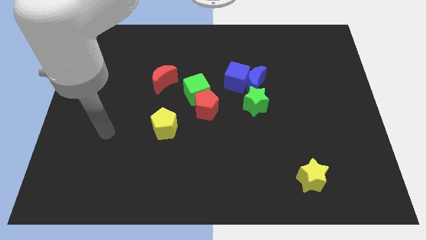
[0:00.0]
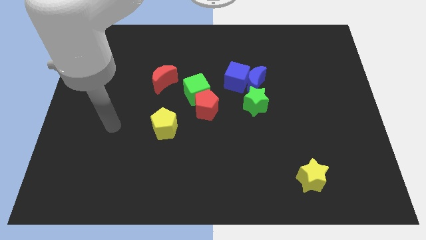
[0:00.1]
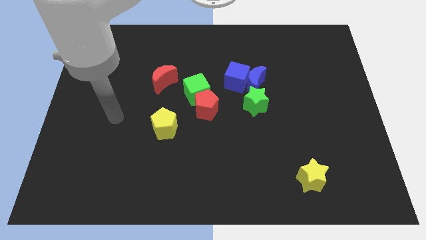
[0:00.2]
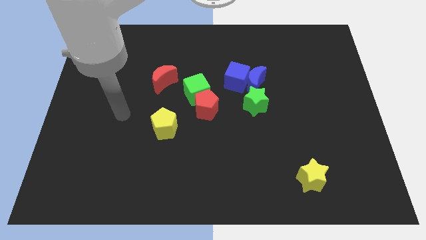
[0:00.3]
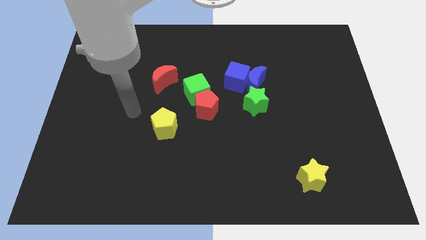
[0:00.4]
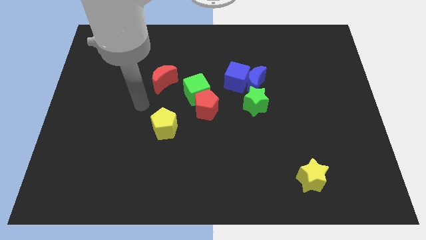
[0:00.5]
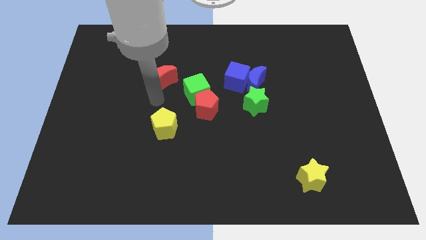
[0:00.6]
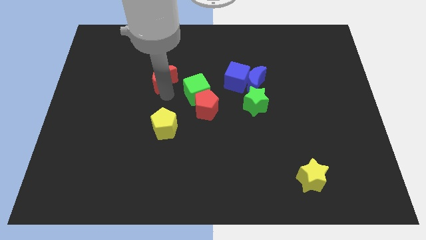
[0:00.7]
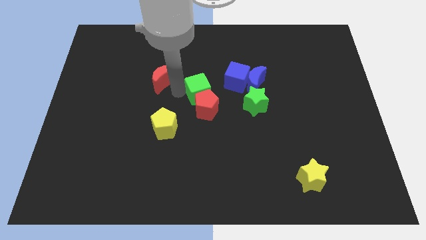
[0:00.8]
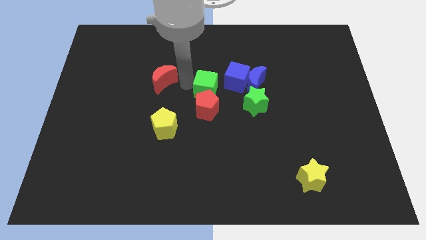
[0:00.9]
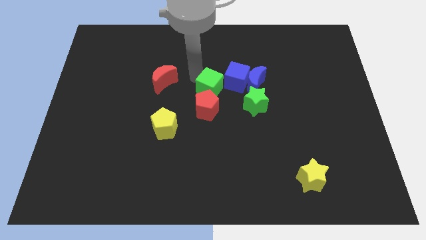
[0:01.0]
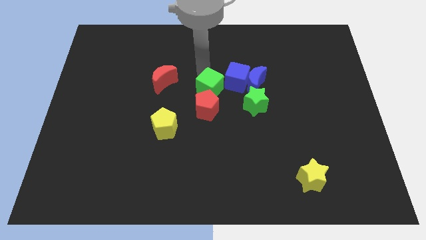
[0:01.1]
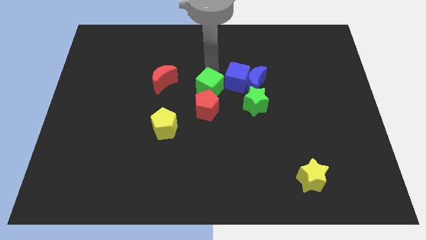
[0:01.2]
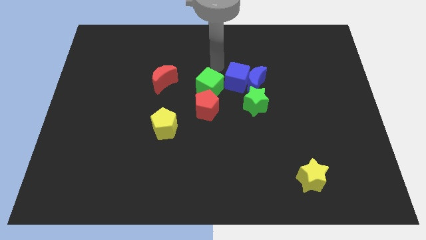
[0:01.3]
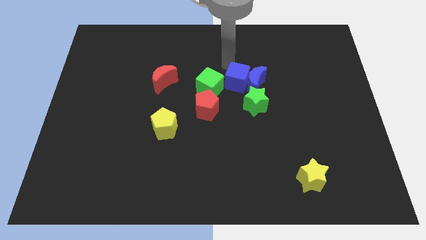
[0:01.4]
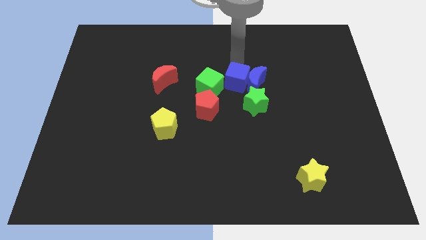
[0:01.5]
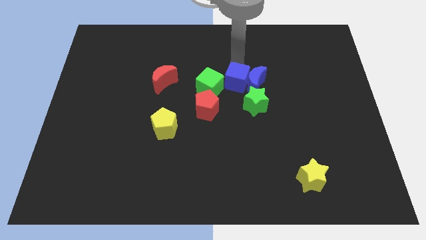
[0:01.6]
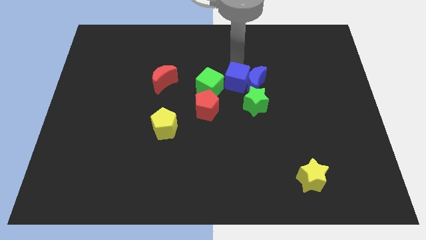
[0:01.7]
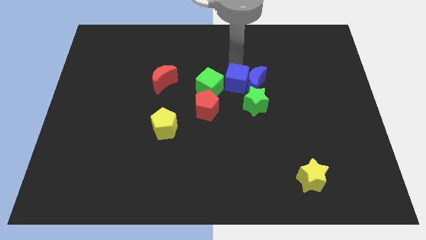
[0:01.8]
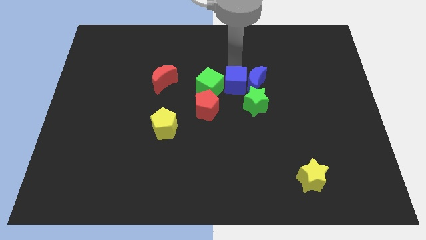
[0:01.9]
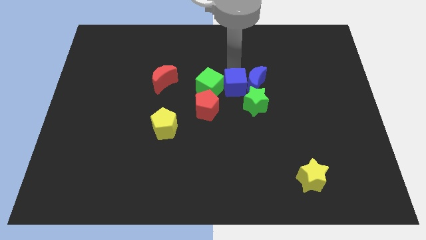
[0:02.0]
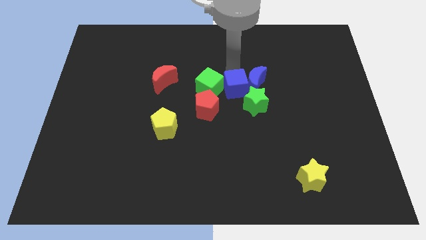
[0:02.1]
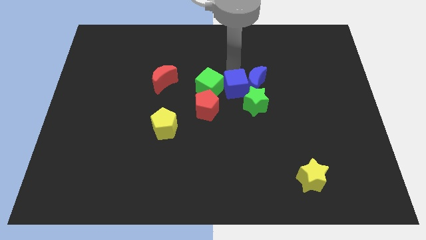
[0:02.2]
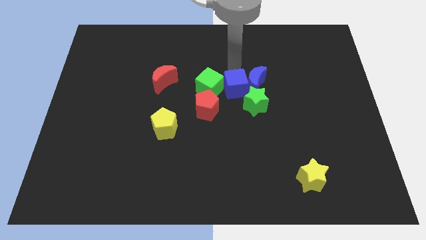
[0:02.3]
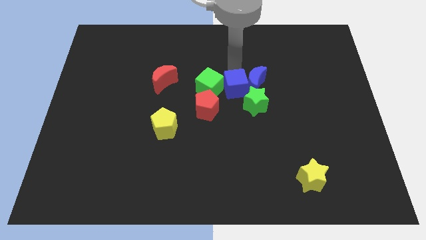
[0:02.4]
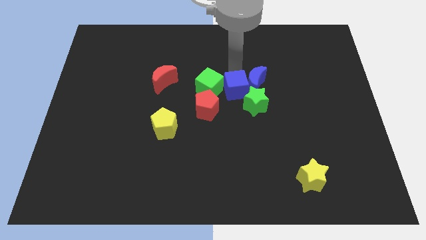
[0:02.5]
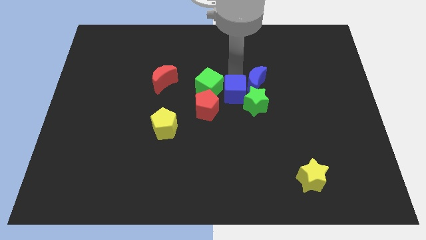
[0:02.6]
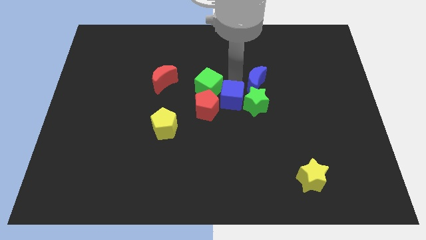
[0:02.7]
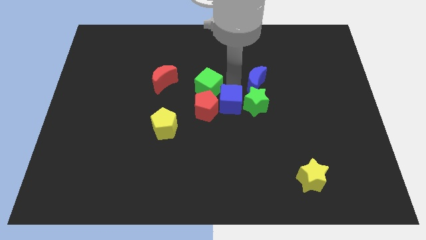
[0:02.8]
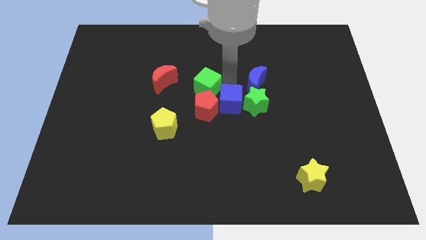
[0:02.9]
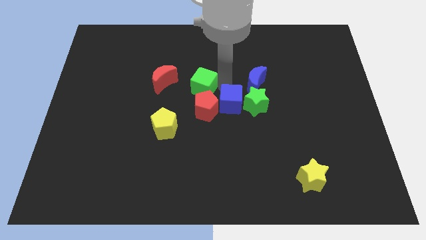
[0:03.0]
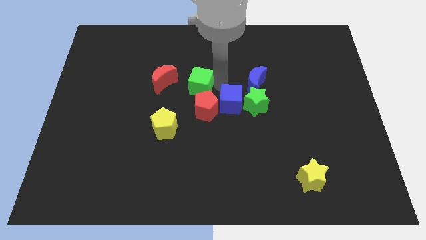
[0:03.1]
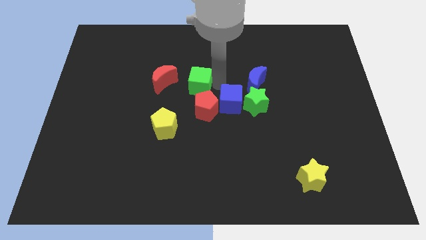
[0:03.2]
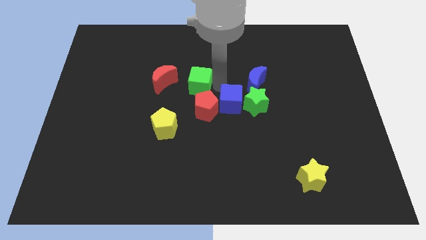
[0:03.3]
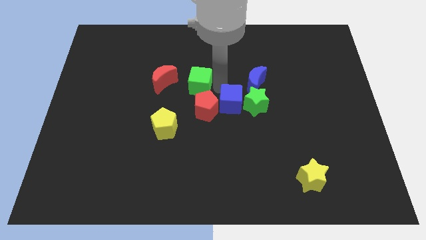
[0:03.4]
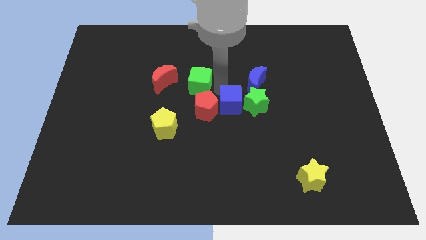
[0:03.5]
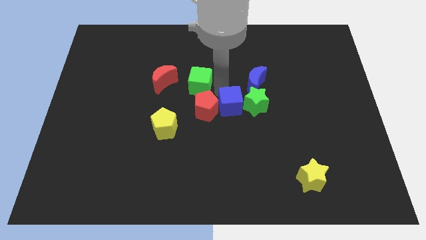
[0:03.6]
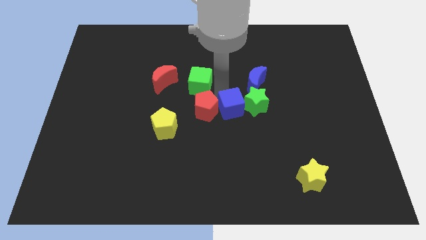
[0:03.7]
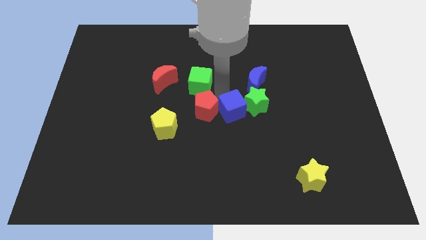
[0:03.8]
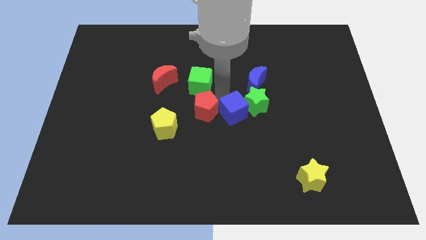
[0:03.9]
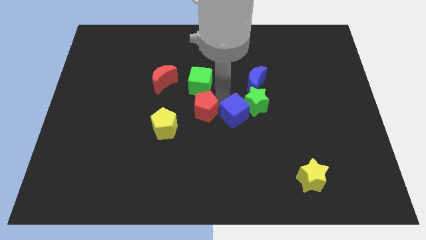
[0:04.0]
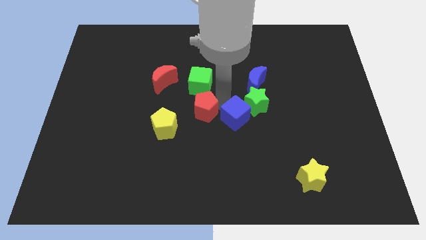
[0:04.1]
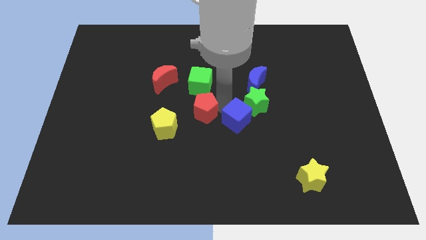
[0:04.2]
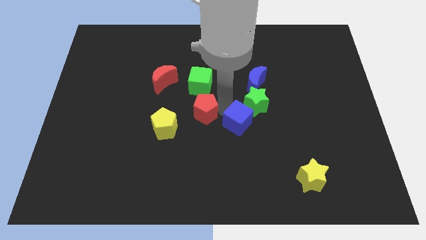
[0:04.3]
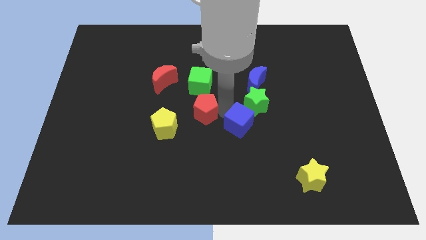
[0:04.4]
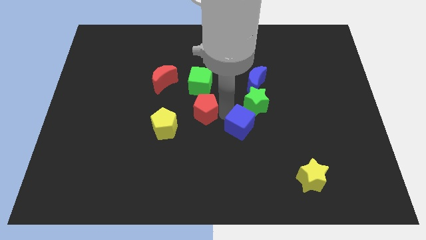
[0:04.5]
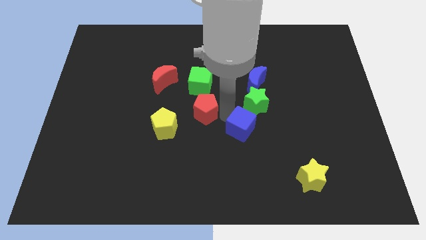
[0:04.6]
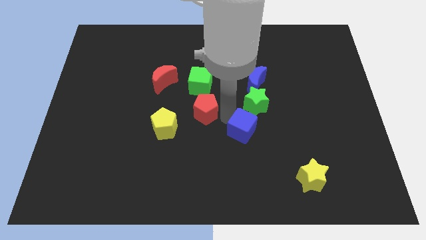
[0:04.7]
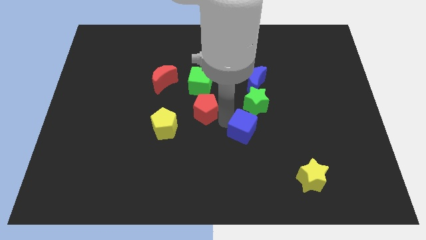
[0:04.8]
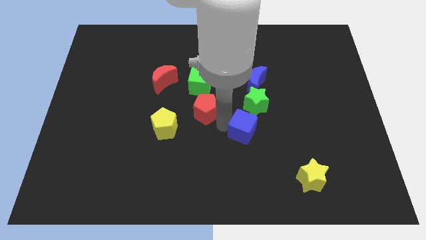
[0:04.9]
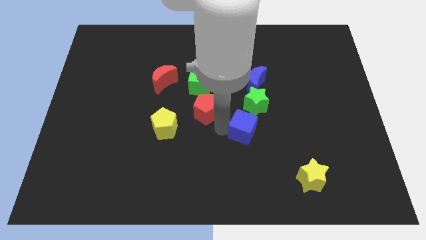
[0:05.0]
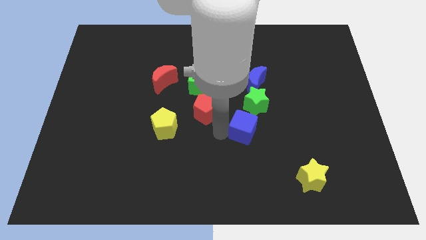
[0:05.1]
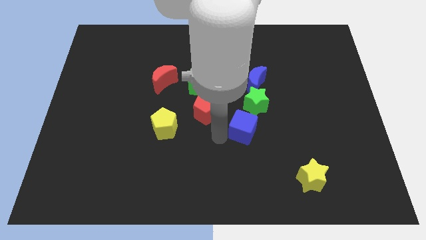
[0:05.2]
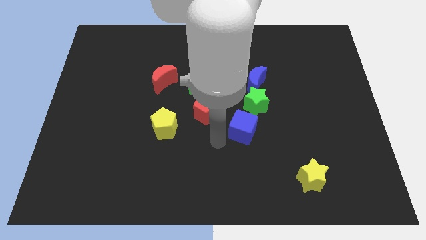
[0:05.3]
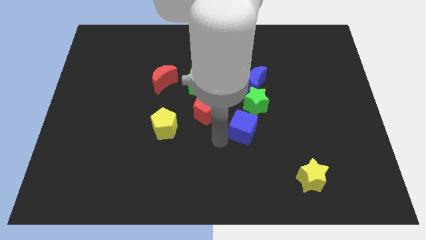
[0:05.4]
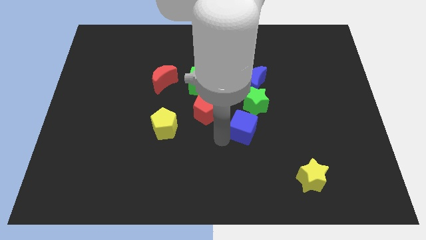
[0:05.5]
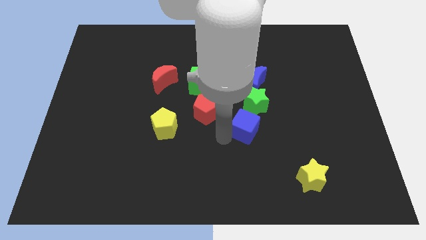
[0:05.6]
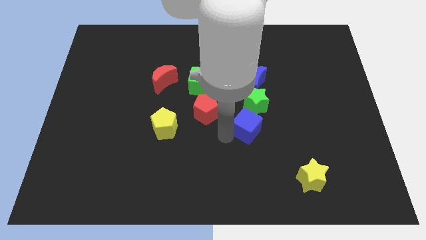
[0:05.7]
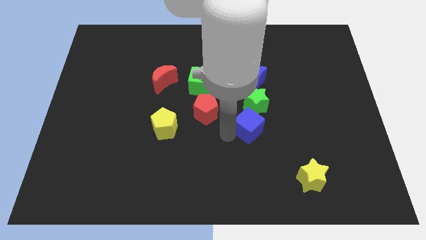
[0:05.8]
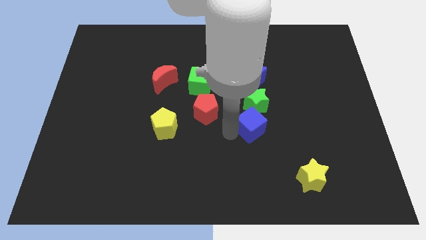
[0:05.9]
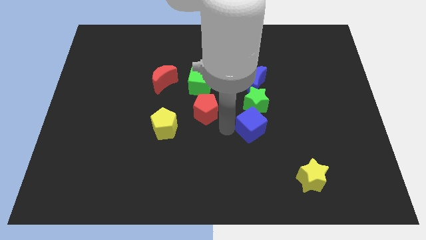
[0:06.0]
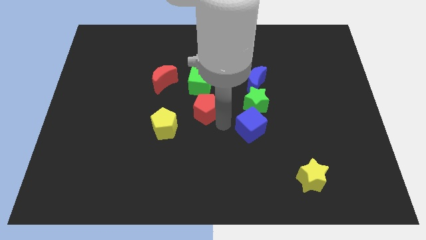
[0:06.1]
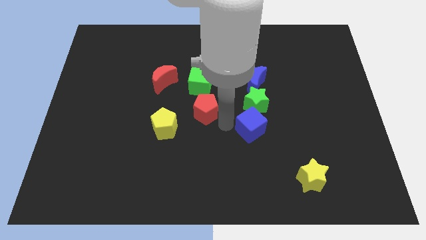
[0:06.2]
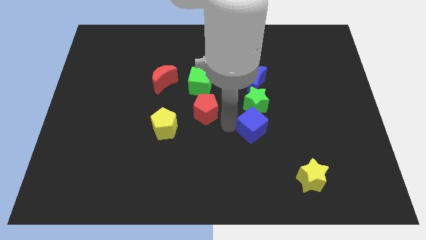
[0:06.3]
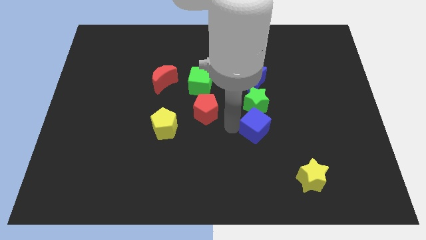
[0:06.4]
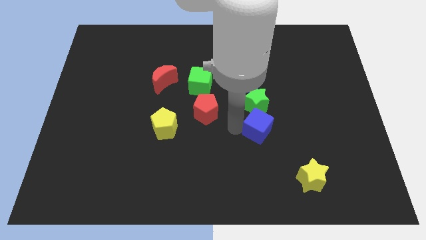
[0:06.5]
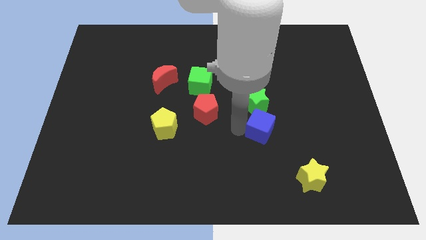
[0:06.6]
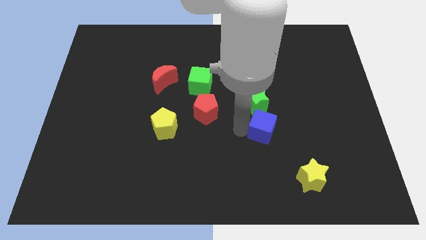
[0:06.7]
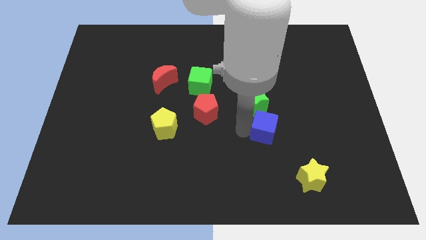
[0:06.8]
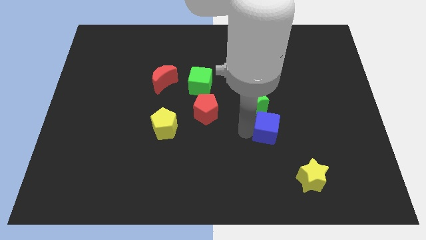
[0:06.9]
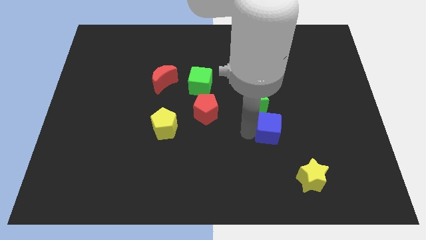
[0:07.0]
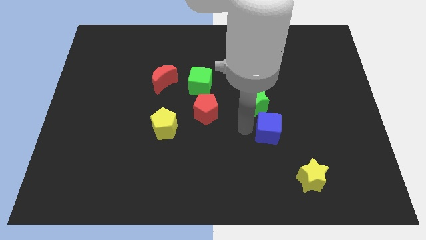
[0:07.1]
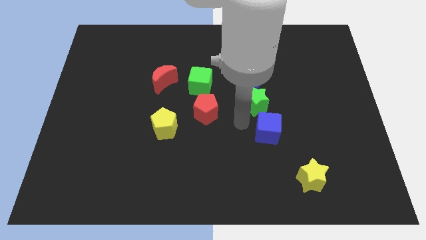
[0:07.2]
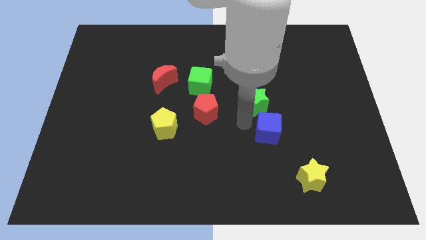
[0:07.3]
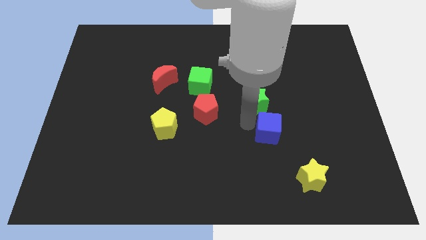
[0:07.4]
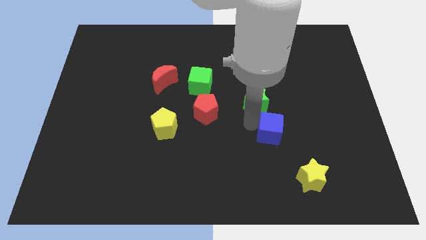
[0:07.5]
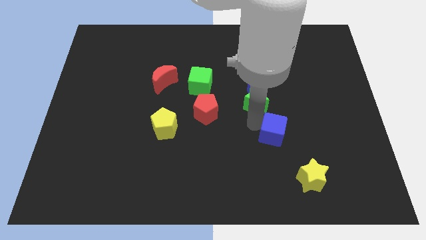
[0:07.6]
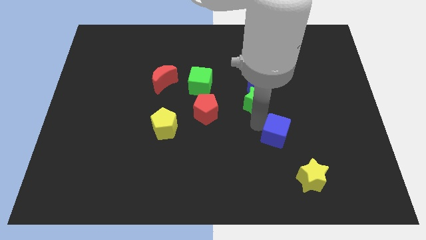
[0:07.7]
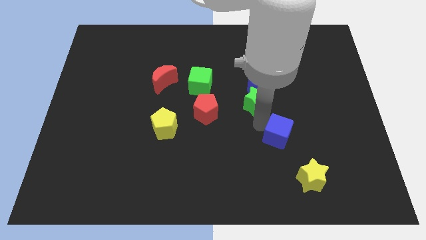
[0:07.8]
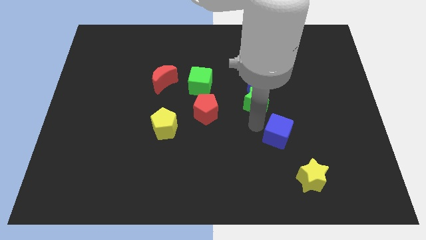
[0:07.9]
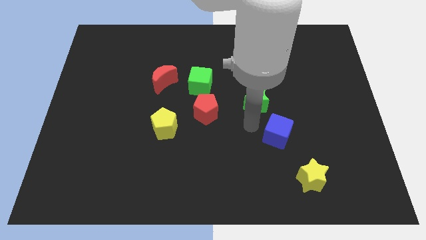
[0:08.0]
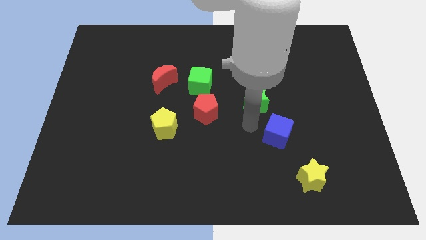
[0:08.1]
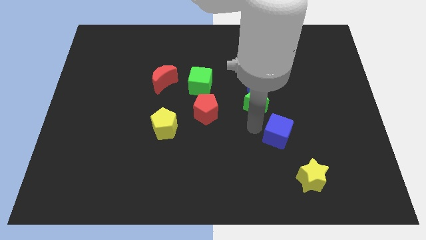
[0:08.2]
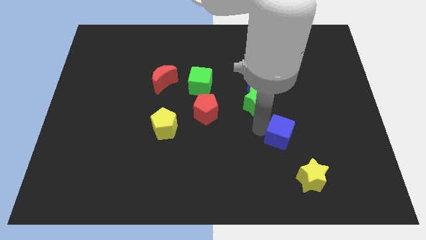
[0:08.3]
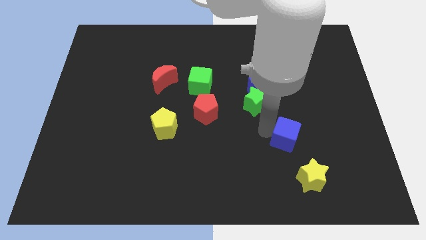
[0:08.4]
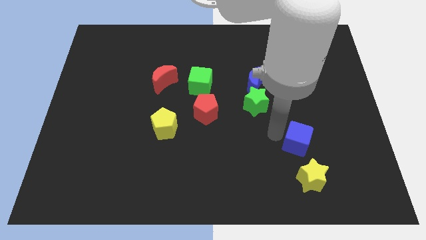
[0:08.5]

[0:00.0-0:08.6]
slide the blue cube diagonally down and right
